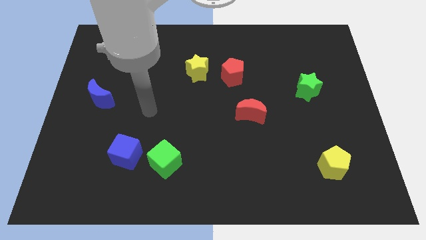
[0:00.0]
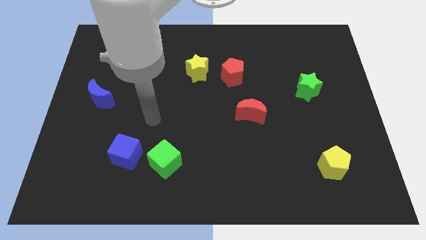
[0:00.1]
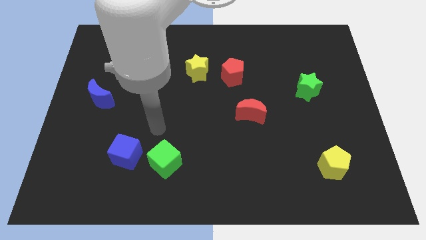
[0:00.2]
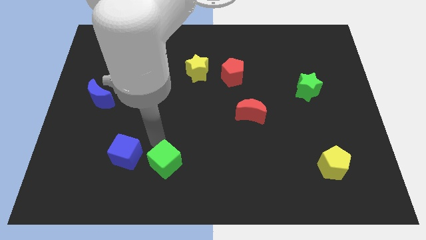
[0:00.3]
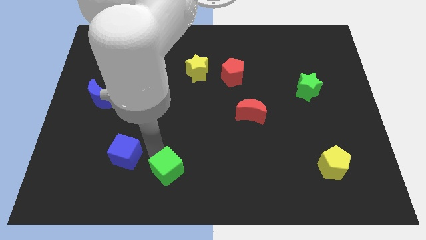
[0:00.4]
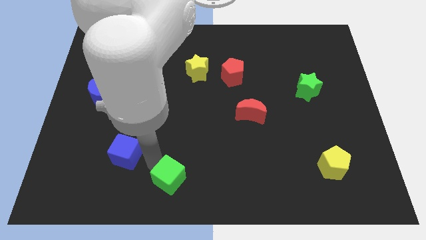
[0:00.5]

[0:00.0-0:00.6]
pull the blue cube apart from the green cube

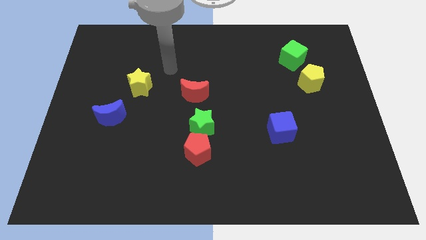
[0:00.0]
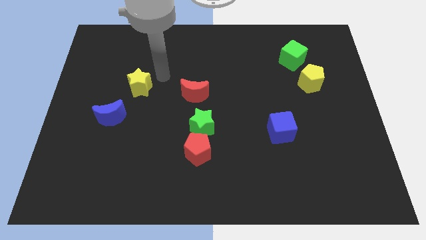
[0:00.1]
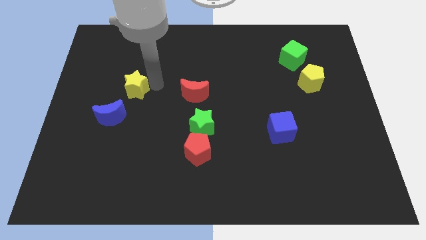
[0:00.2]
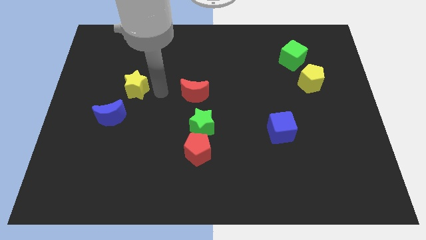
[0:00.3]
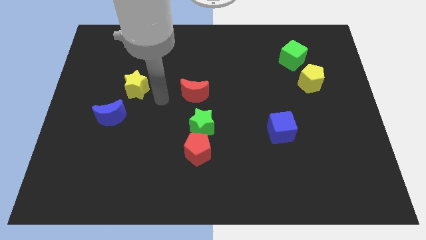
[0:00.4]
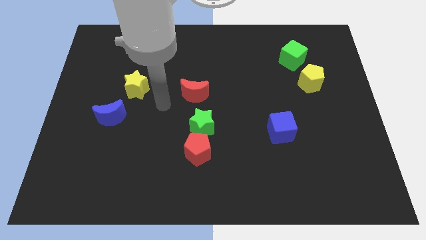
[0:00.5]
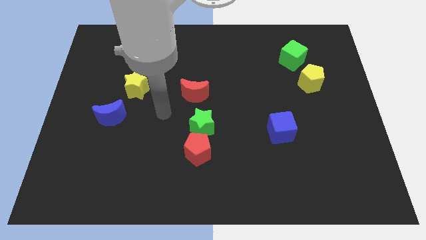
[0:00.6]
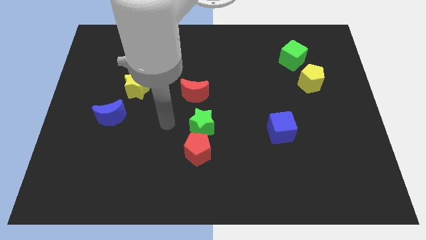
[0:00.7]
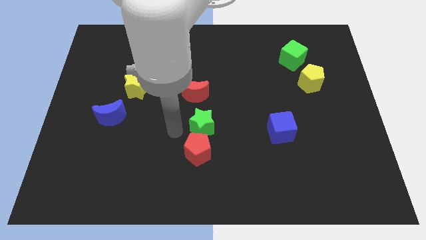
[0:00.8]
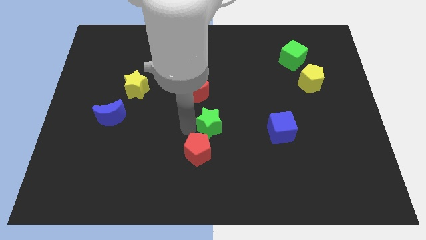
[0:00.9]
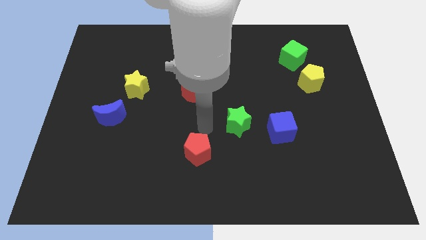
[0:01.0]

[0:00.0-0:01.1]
separate the red pentagon from the green star

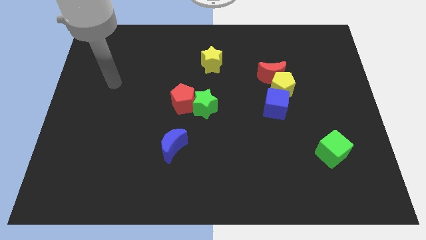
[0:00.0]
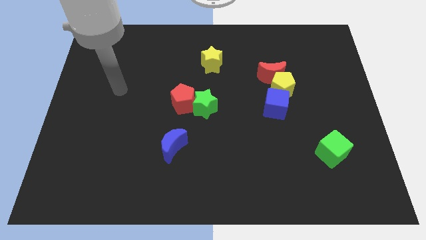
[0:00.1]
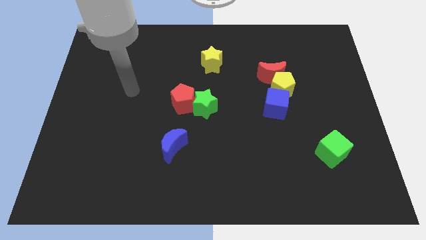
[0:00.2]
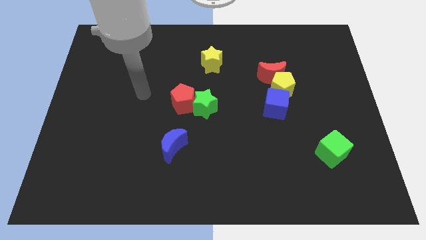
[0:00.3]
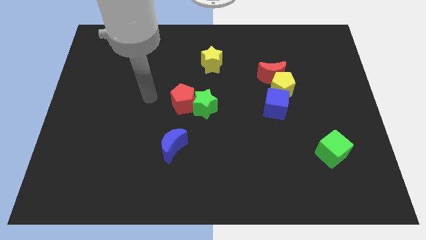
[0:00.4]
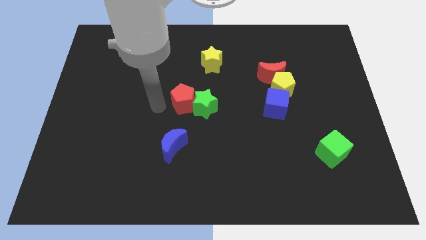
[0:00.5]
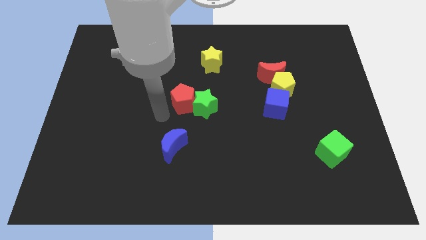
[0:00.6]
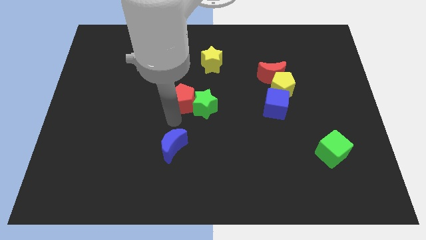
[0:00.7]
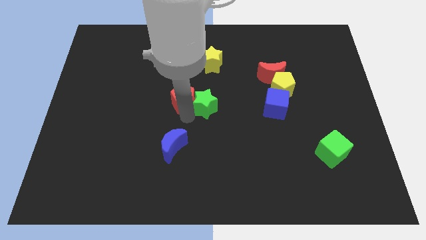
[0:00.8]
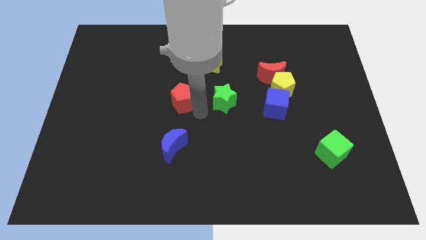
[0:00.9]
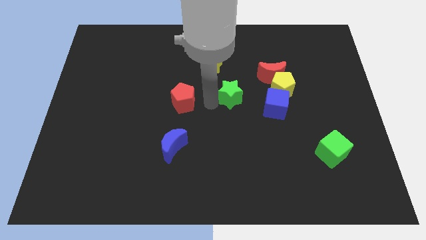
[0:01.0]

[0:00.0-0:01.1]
move the red pentagon away from the green star

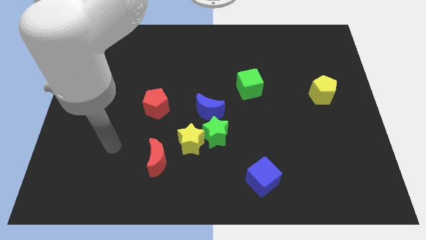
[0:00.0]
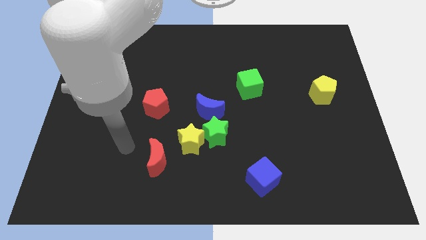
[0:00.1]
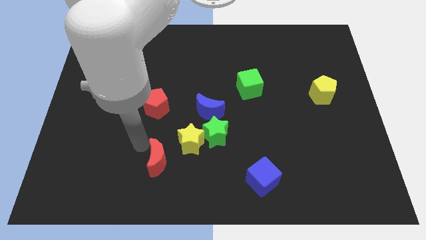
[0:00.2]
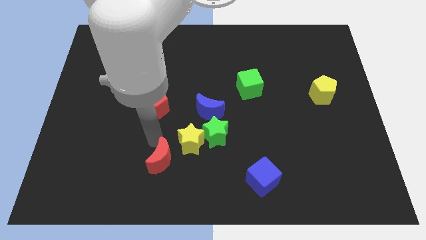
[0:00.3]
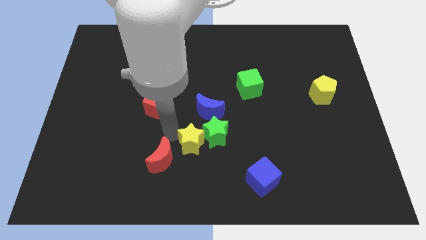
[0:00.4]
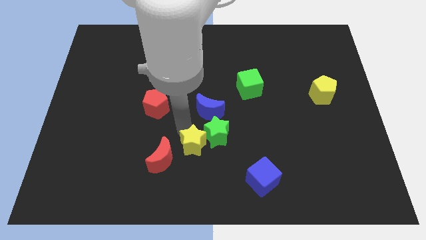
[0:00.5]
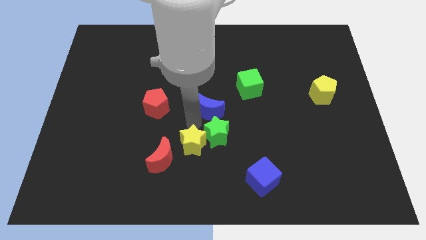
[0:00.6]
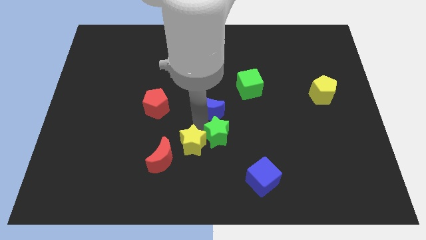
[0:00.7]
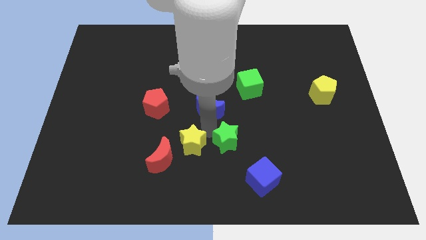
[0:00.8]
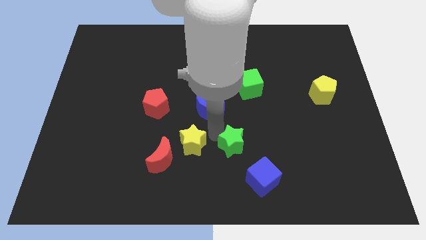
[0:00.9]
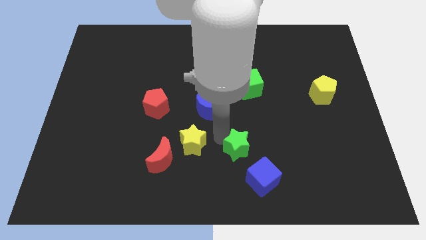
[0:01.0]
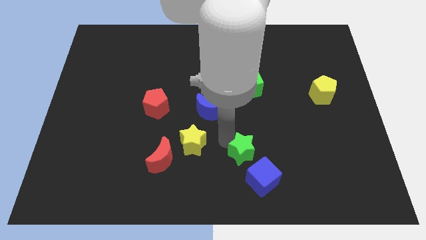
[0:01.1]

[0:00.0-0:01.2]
pull the green star apart from the yellow star and blue moon

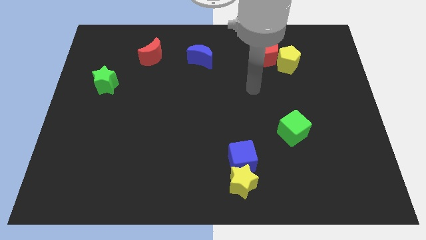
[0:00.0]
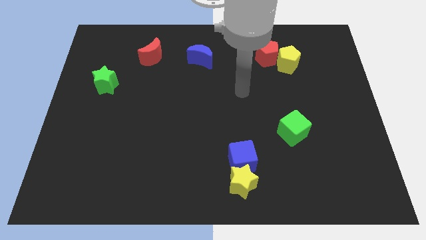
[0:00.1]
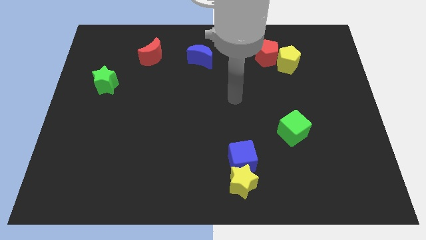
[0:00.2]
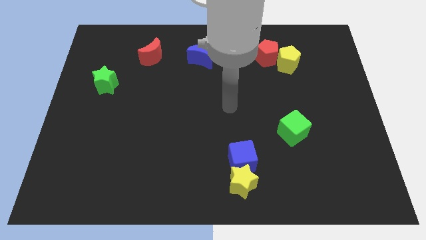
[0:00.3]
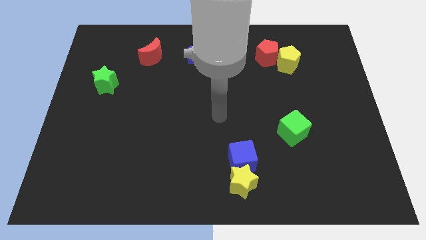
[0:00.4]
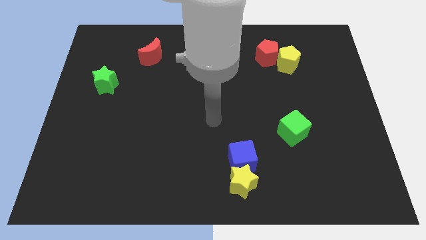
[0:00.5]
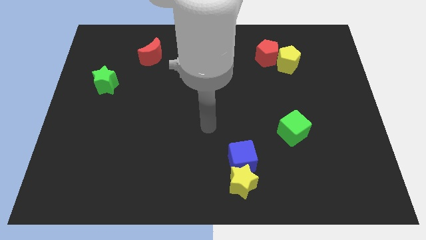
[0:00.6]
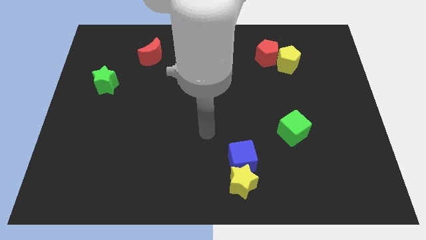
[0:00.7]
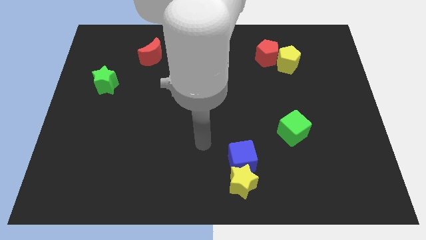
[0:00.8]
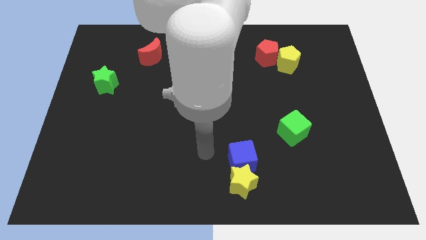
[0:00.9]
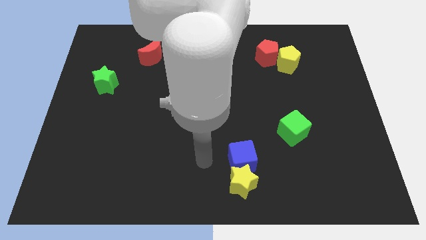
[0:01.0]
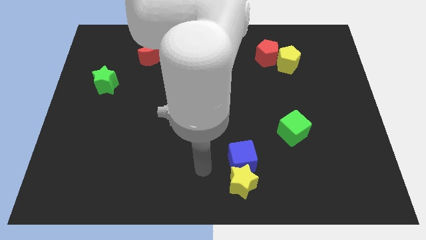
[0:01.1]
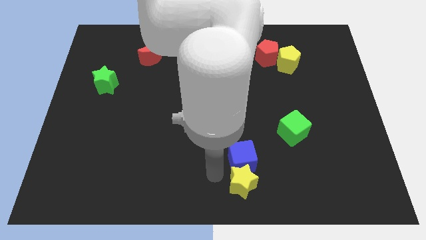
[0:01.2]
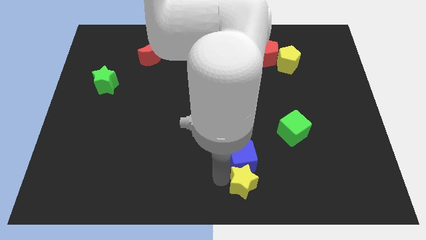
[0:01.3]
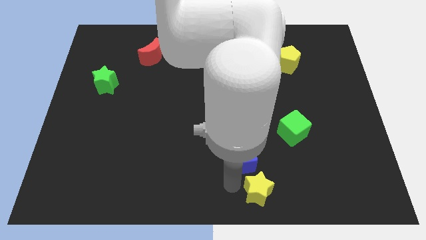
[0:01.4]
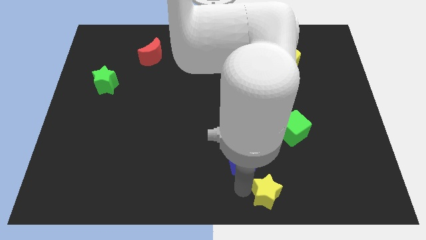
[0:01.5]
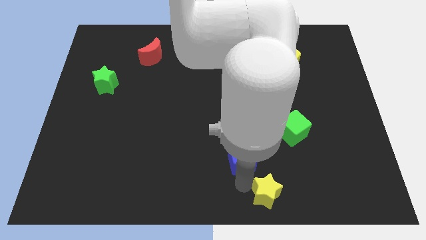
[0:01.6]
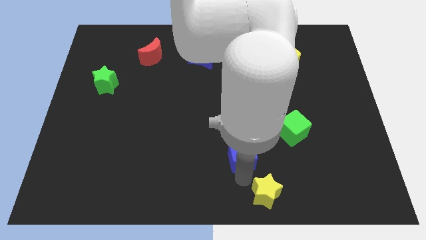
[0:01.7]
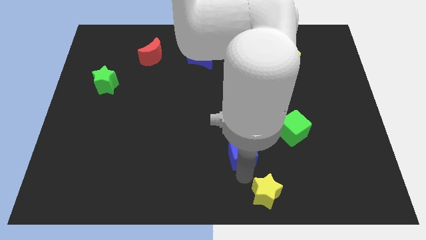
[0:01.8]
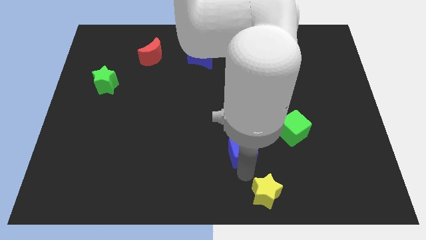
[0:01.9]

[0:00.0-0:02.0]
separate the blue cube from the yellow star

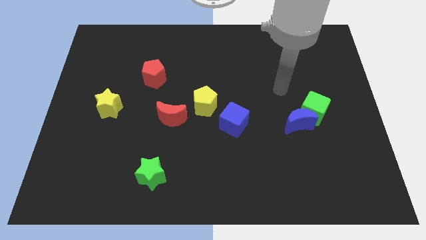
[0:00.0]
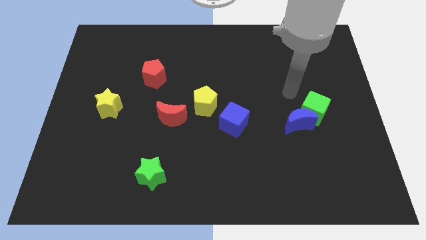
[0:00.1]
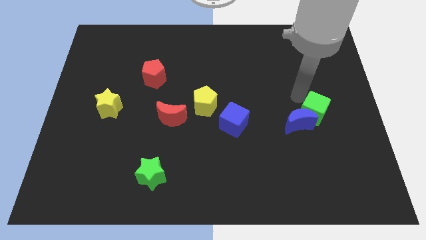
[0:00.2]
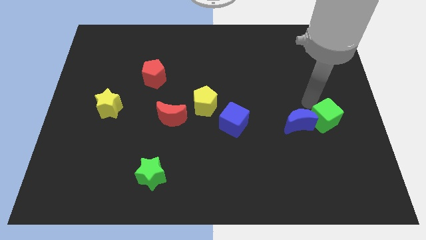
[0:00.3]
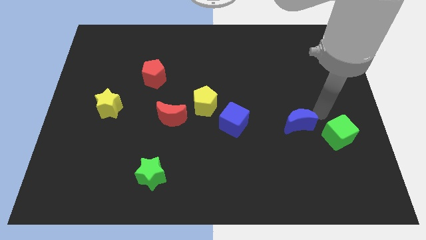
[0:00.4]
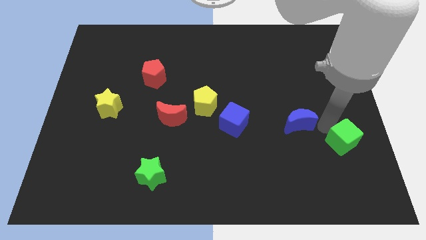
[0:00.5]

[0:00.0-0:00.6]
pull the blue moon apart from the green cube

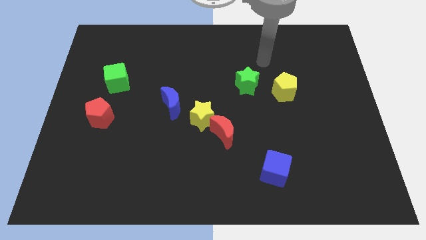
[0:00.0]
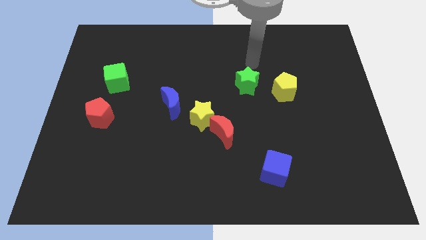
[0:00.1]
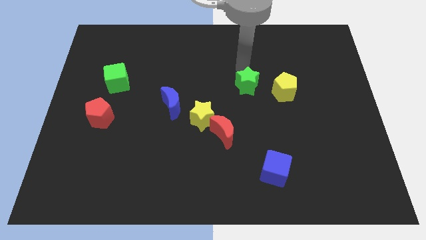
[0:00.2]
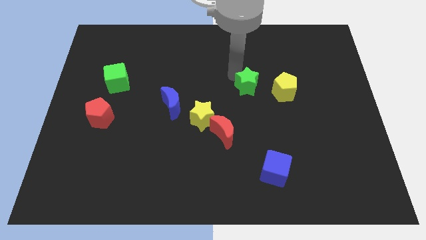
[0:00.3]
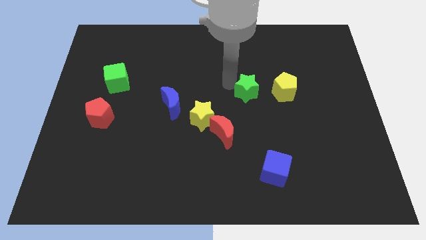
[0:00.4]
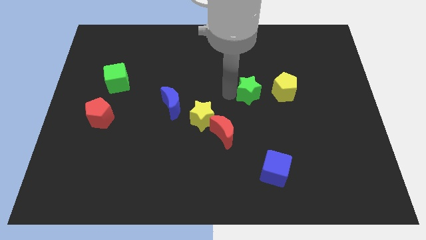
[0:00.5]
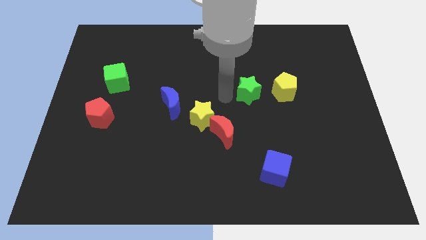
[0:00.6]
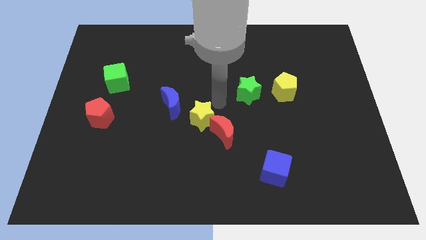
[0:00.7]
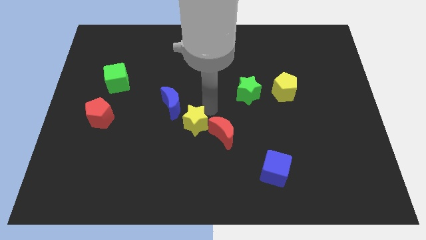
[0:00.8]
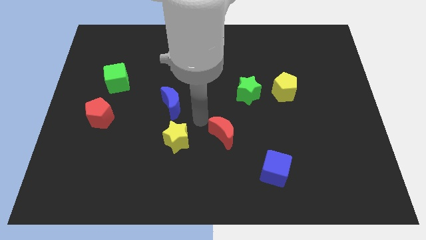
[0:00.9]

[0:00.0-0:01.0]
separate the red moon from the yellow star

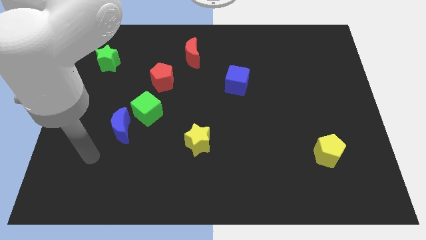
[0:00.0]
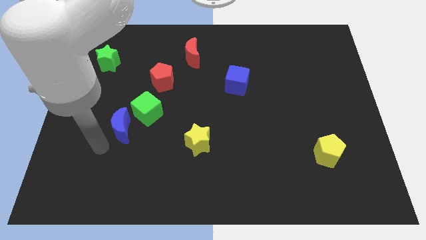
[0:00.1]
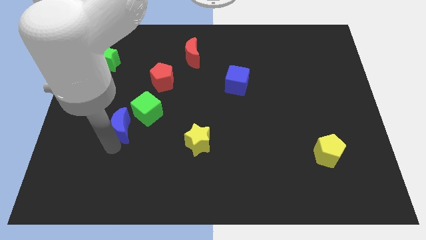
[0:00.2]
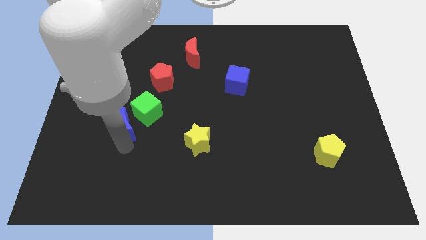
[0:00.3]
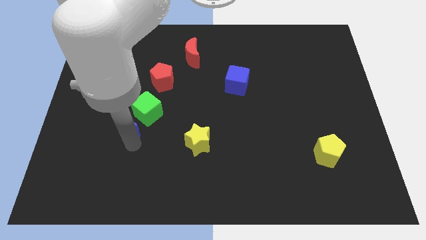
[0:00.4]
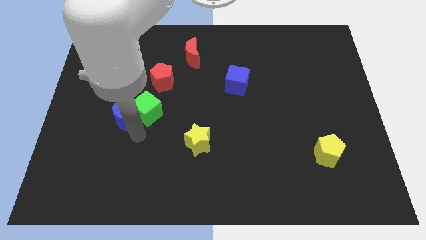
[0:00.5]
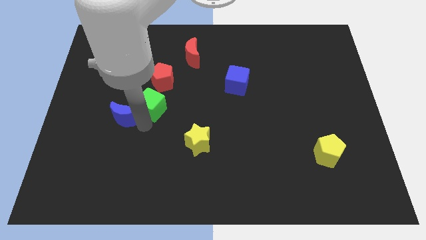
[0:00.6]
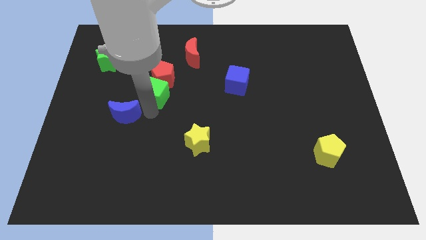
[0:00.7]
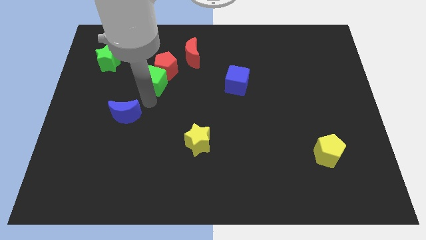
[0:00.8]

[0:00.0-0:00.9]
separate the blue moon from the green cube

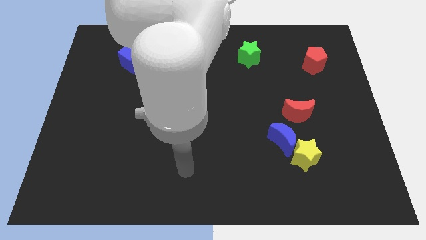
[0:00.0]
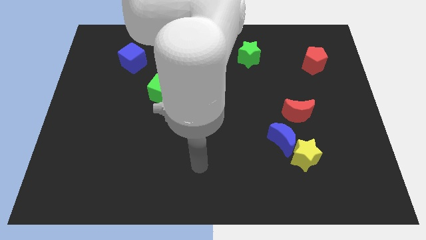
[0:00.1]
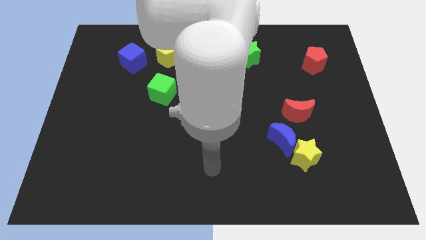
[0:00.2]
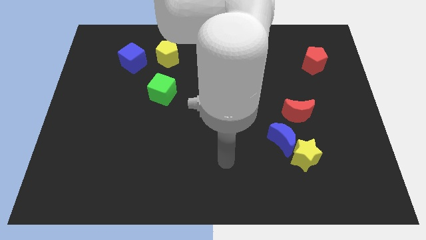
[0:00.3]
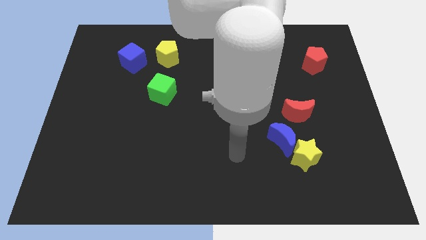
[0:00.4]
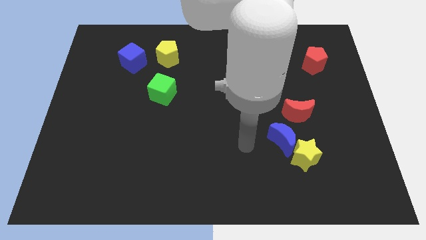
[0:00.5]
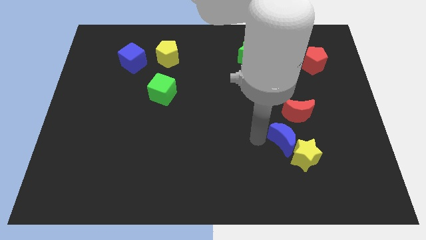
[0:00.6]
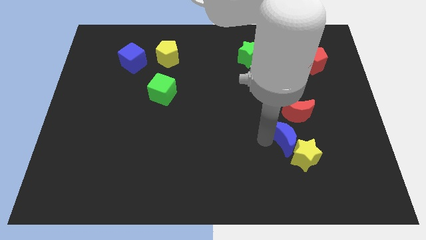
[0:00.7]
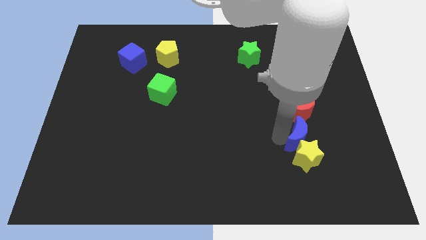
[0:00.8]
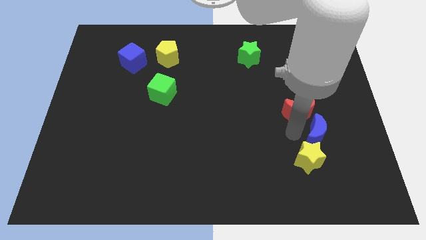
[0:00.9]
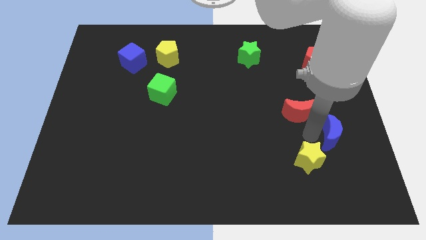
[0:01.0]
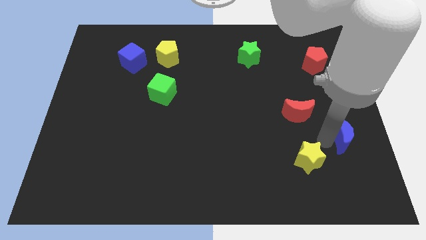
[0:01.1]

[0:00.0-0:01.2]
move the yellow star away from the blue moon
